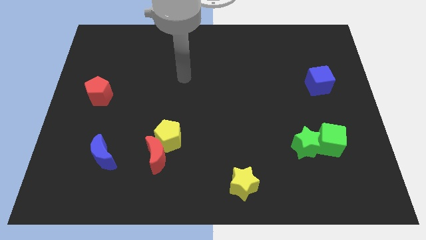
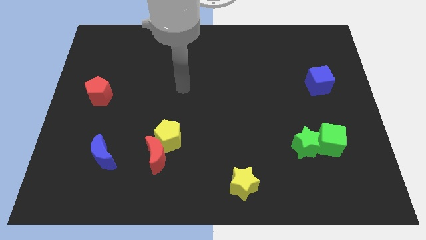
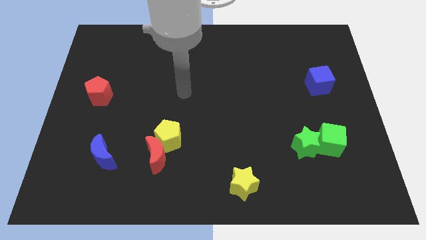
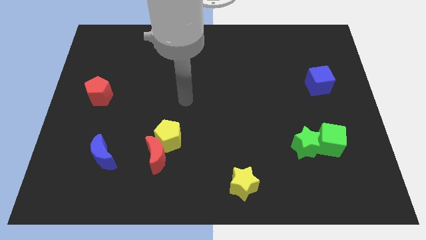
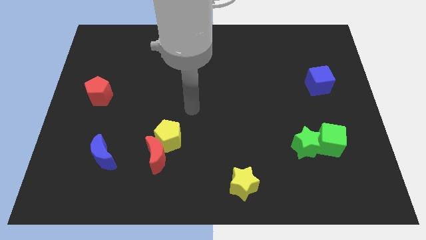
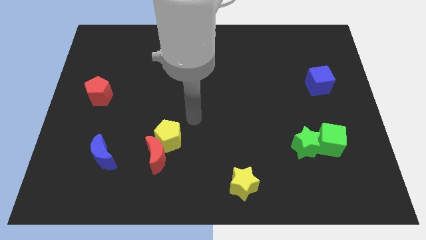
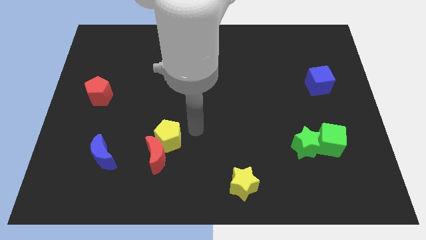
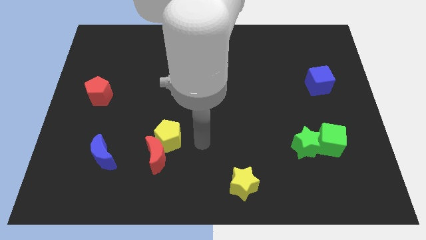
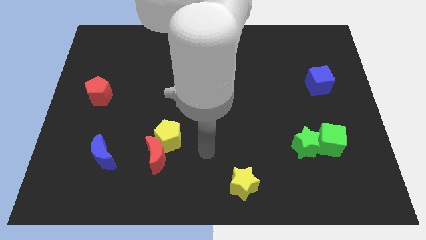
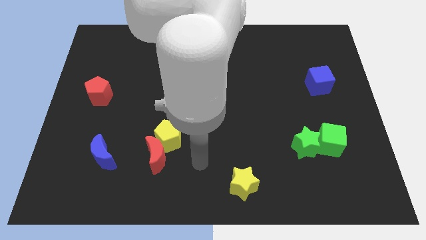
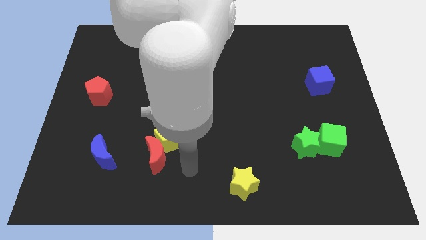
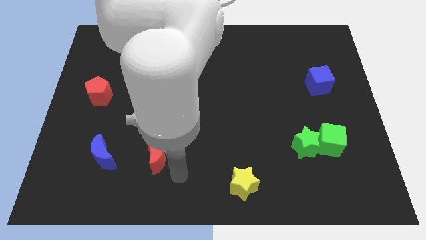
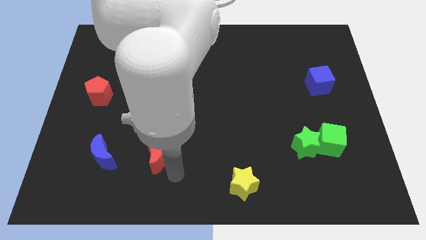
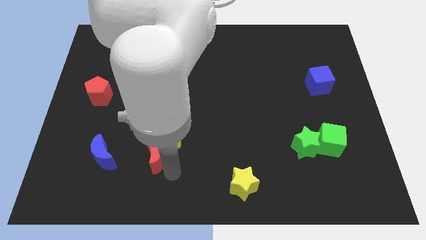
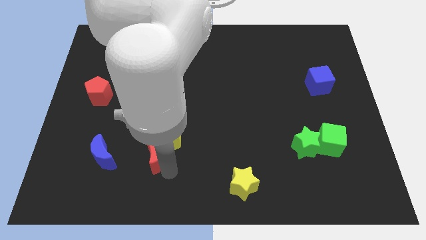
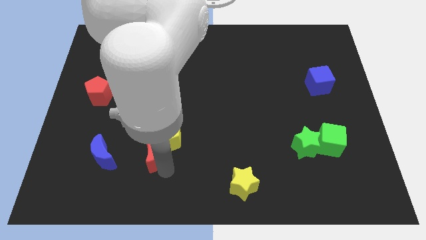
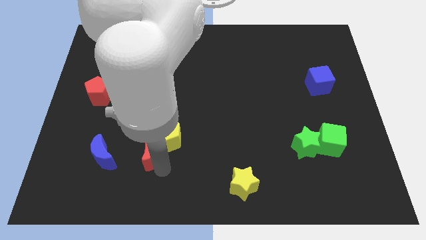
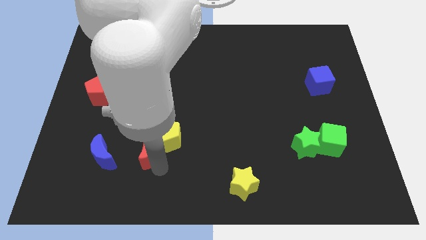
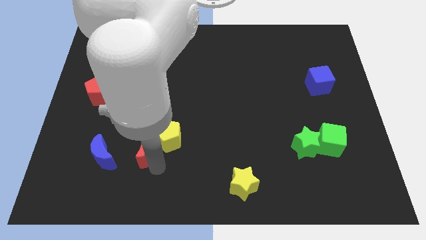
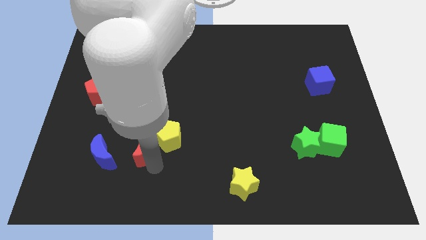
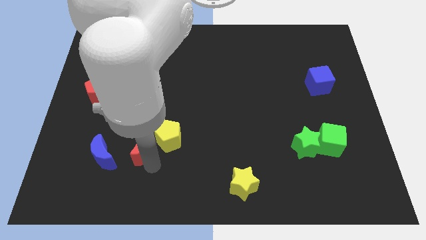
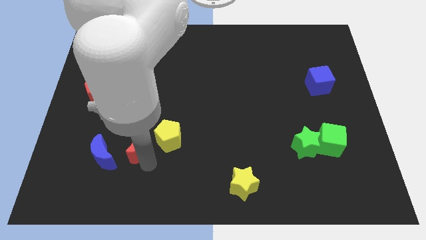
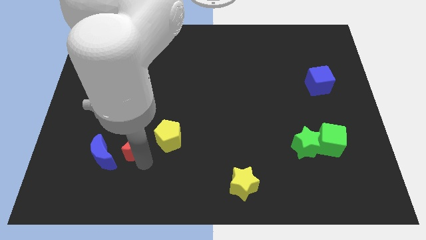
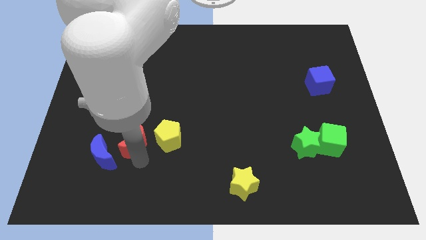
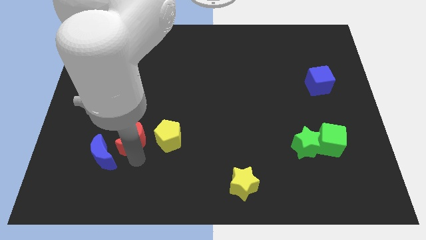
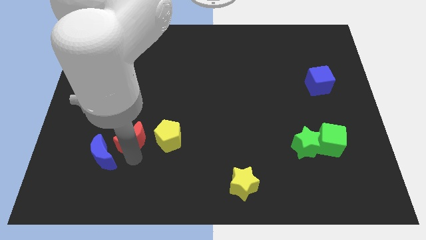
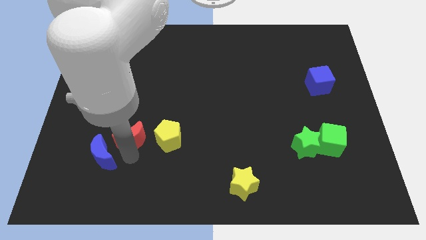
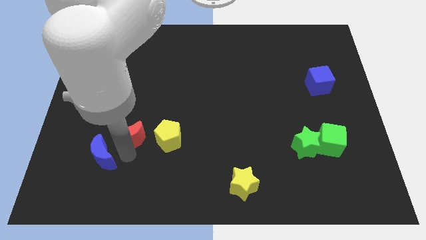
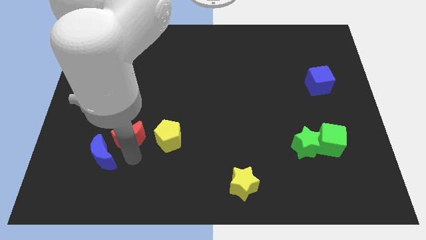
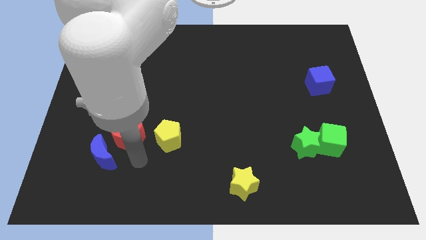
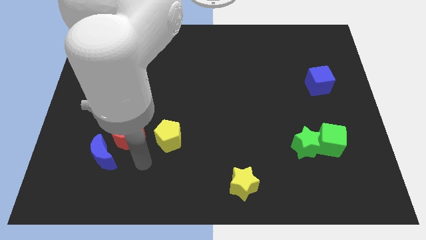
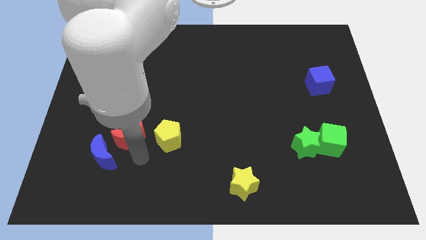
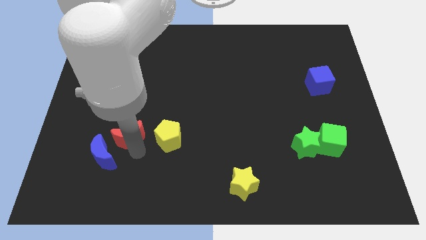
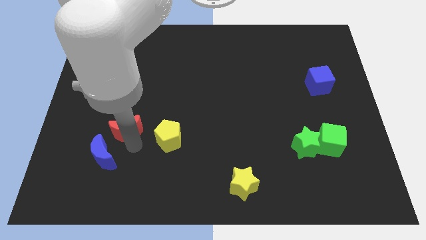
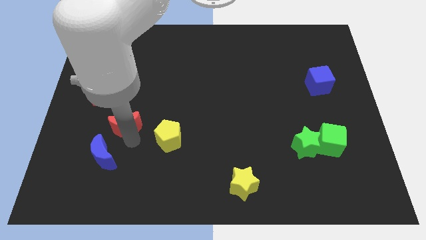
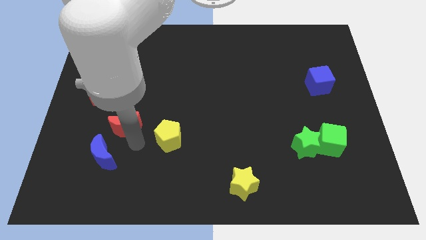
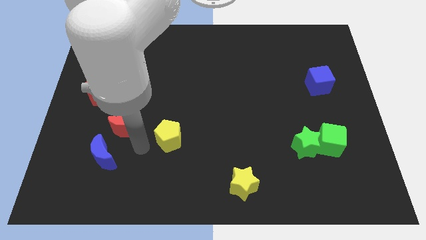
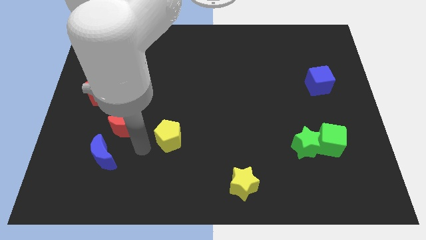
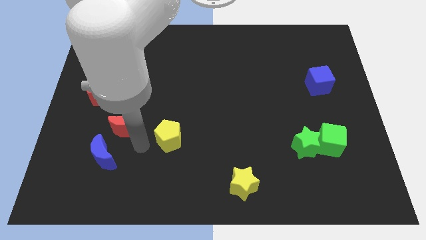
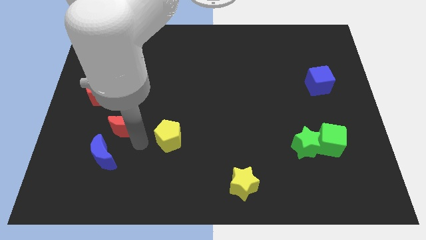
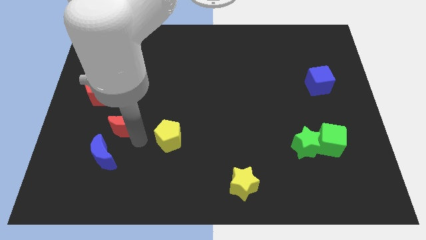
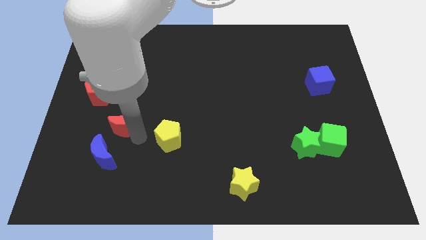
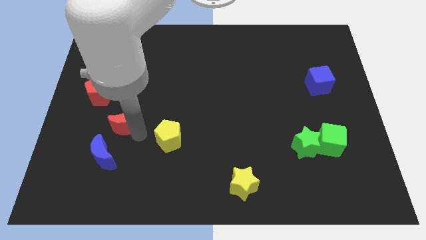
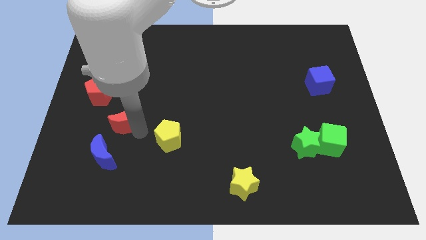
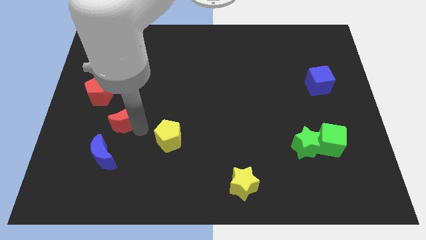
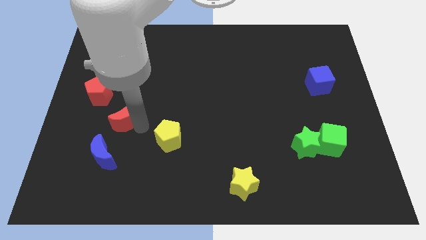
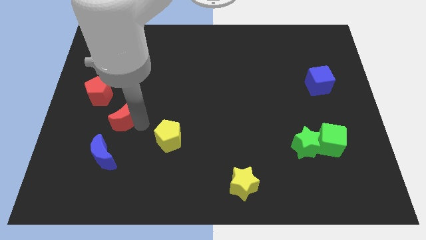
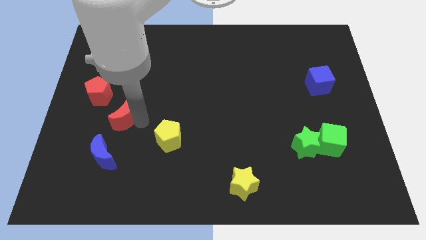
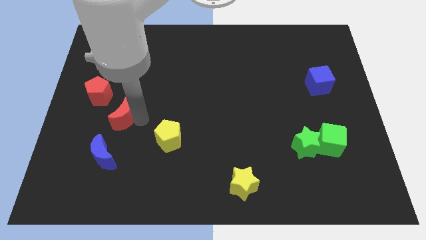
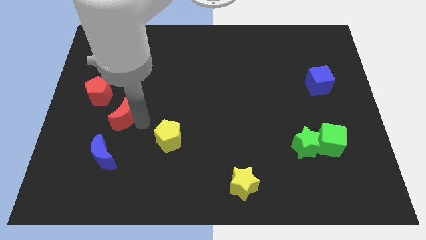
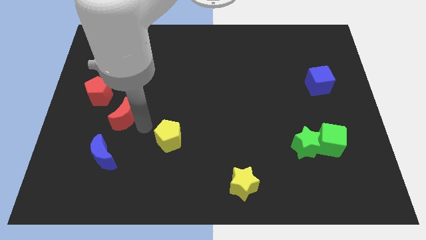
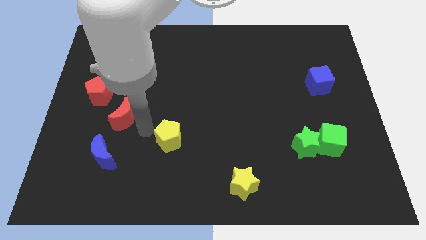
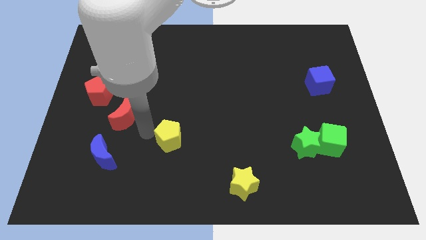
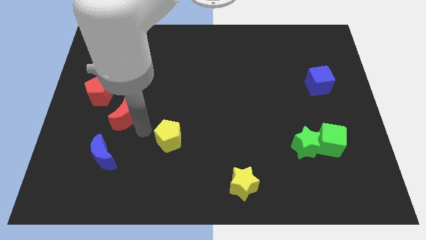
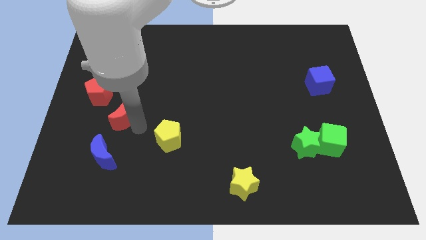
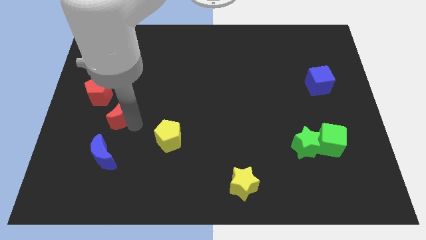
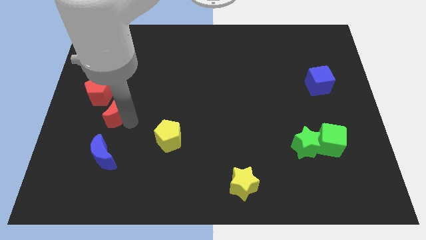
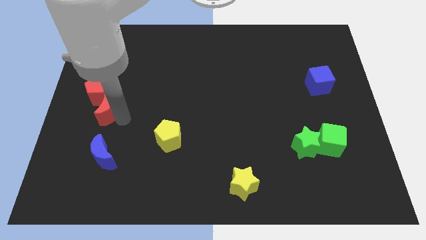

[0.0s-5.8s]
push the red moon next to the red pentagon

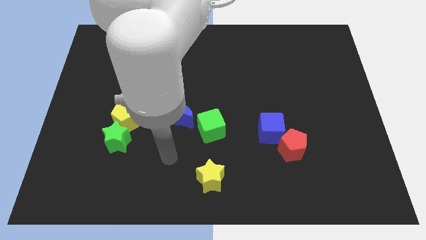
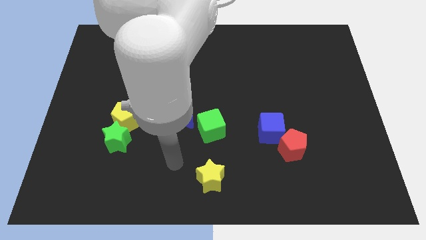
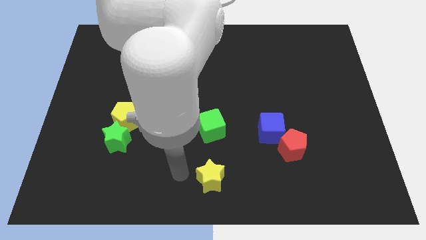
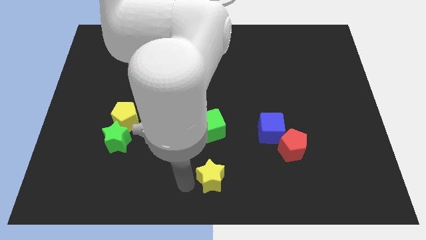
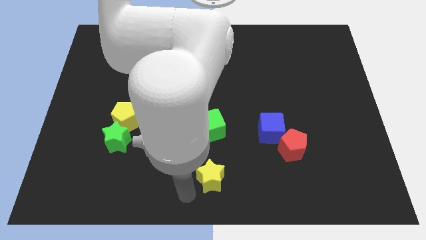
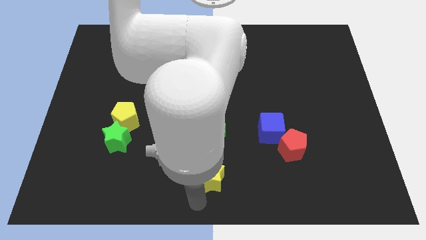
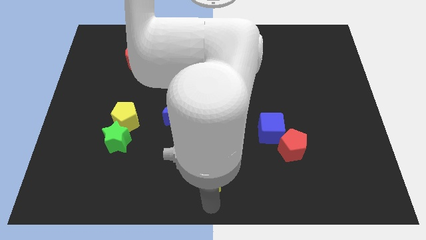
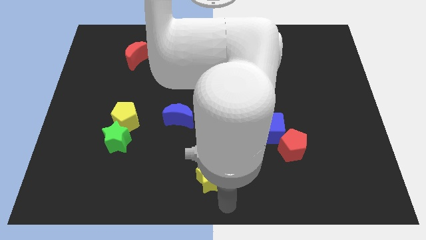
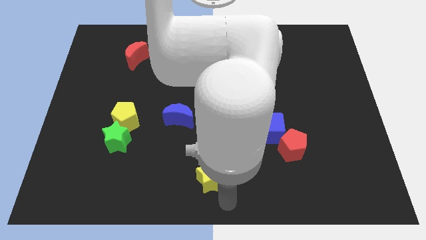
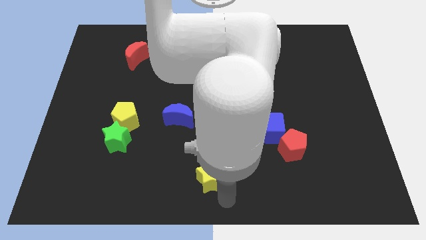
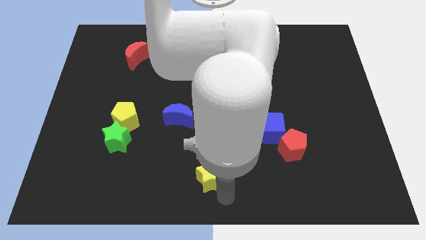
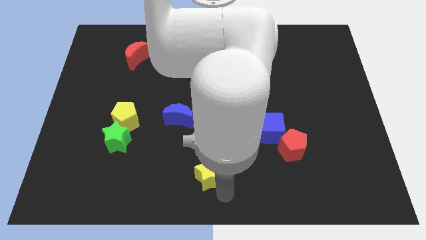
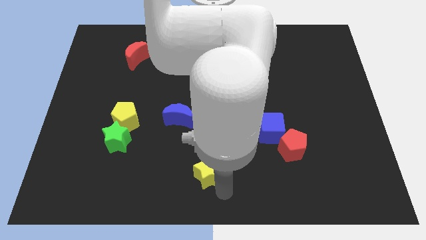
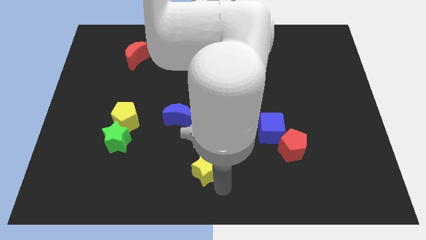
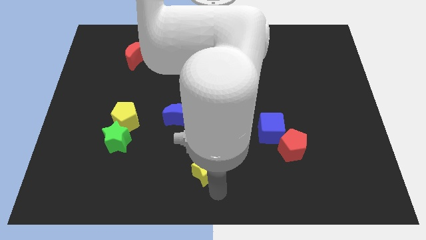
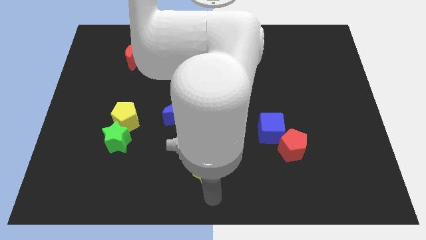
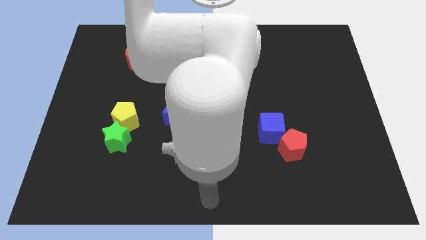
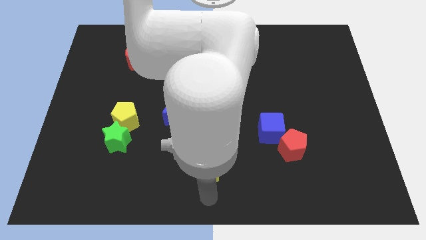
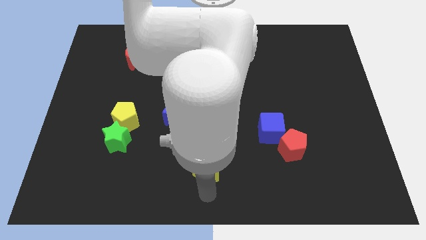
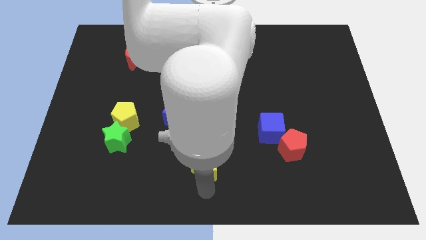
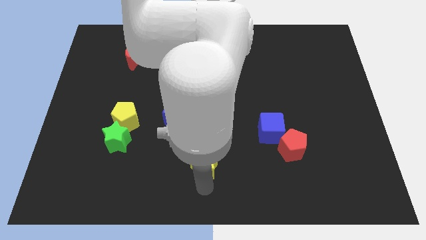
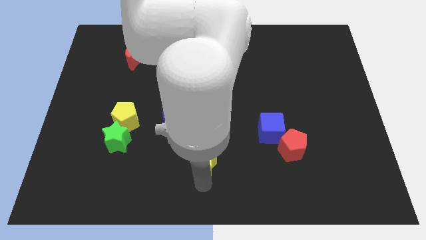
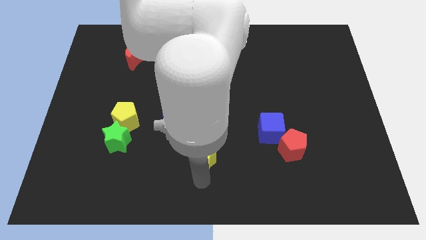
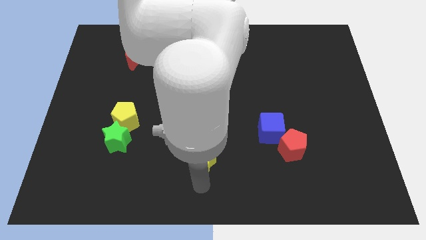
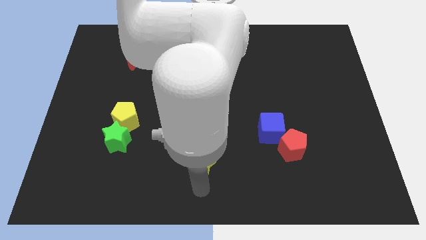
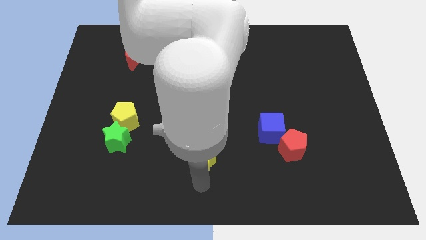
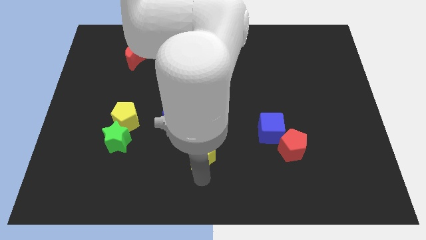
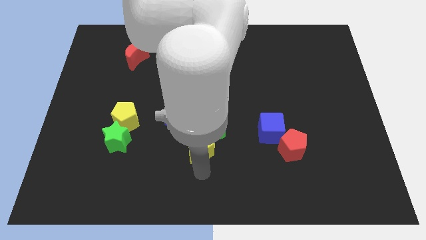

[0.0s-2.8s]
push the yellow star close to the green cube
